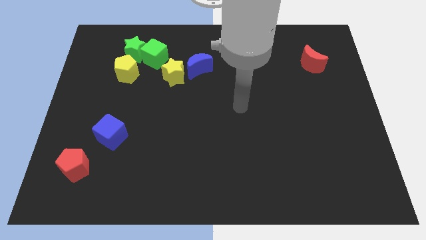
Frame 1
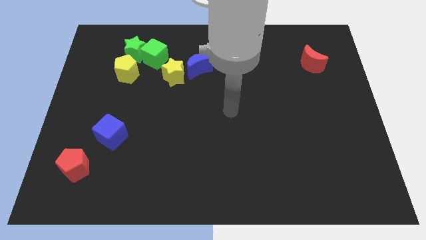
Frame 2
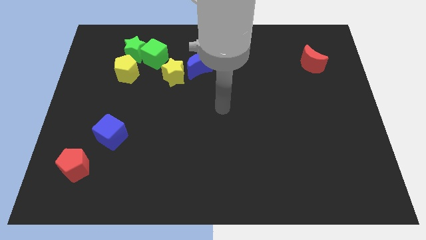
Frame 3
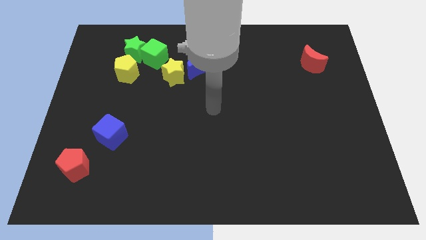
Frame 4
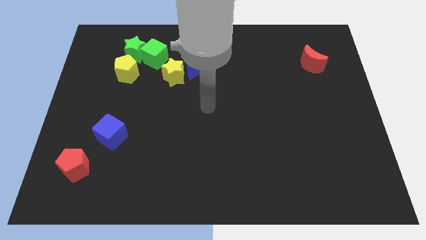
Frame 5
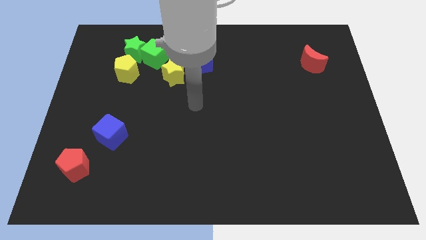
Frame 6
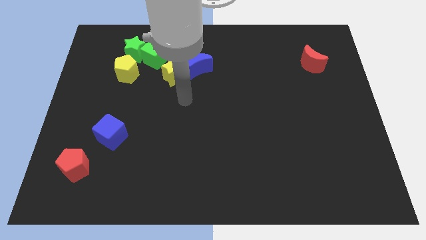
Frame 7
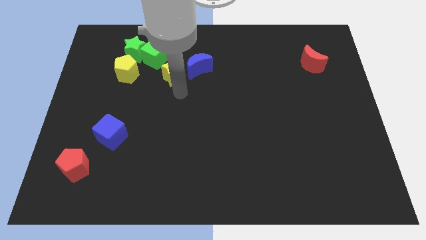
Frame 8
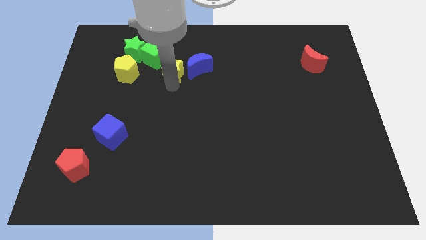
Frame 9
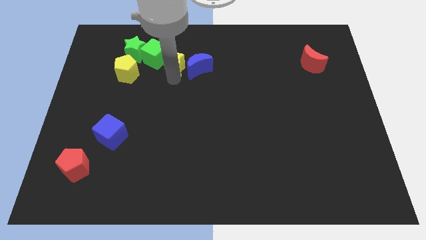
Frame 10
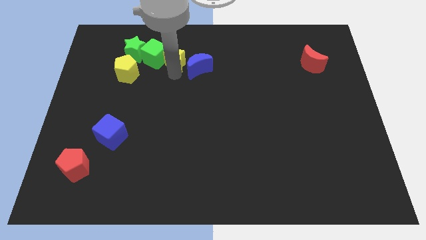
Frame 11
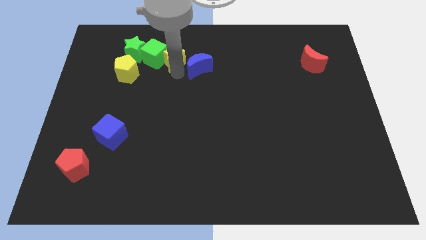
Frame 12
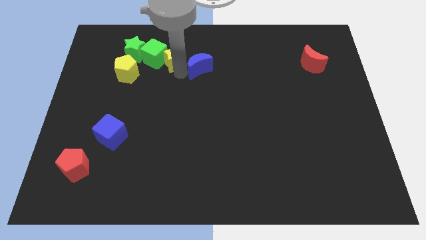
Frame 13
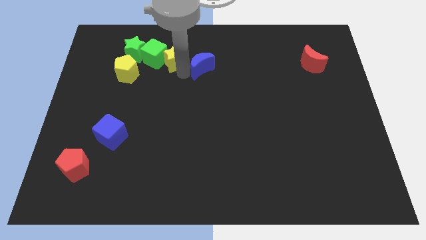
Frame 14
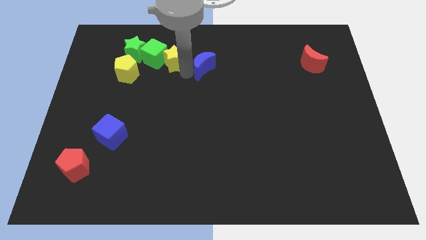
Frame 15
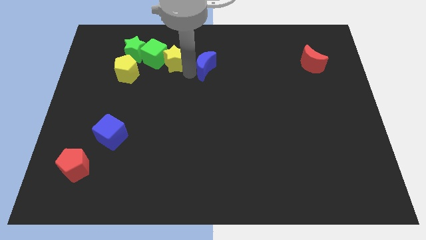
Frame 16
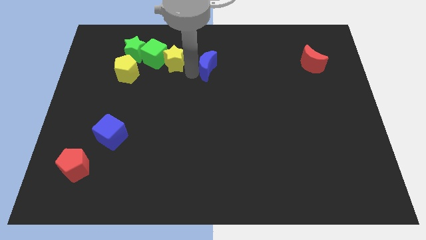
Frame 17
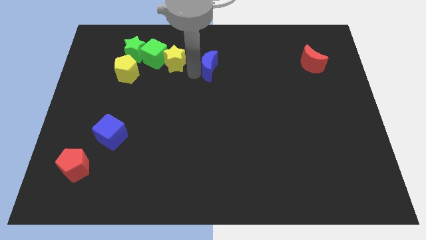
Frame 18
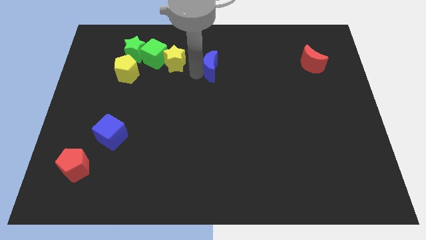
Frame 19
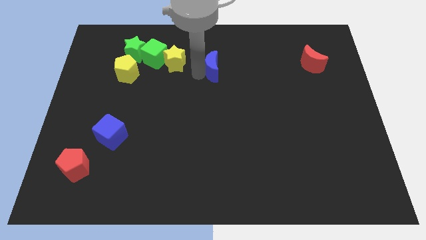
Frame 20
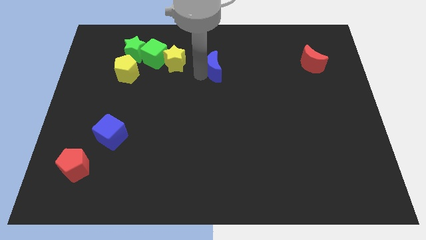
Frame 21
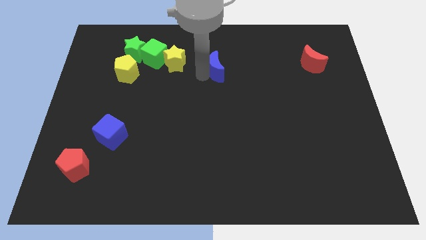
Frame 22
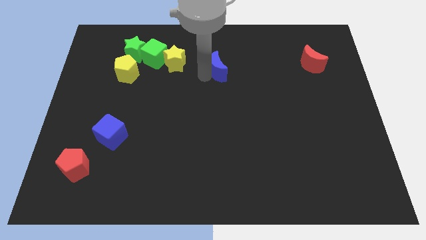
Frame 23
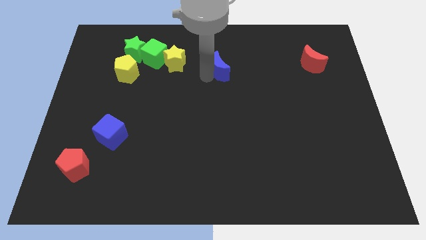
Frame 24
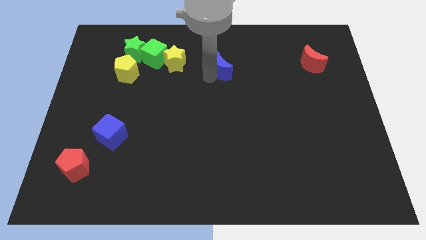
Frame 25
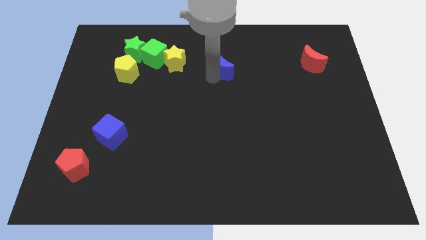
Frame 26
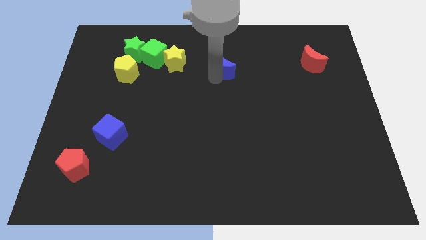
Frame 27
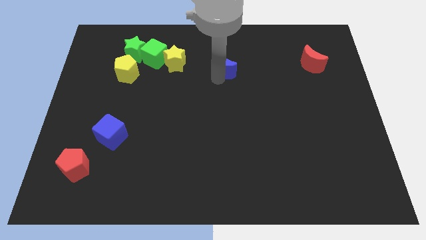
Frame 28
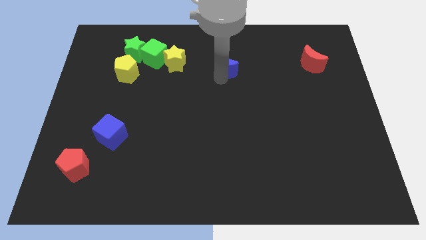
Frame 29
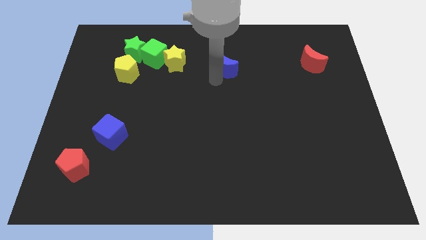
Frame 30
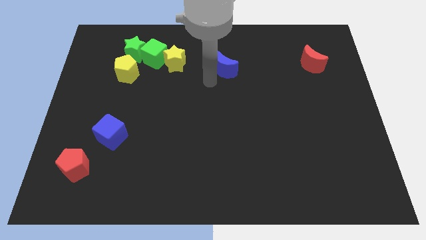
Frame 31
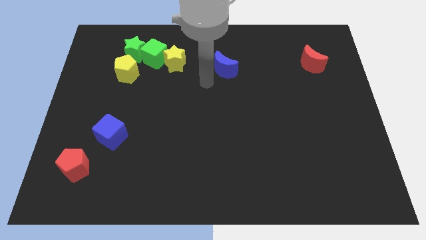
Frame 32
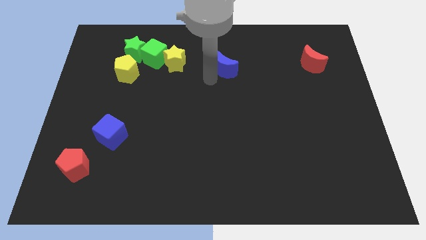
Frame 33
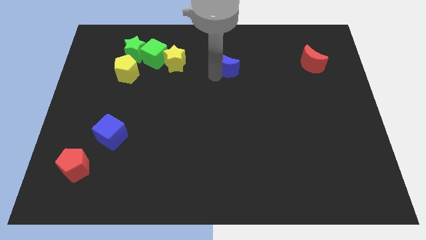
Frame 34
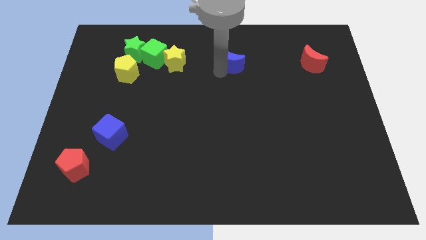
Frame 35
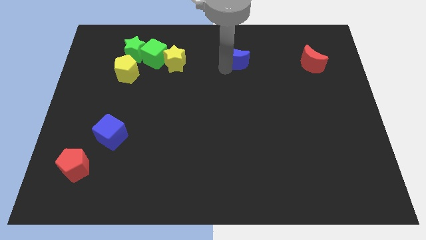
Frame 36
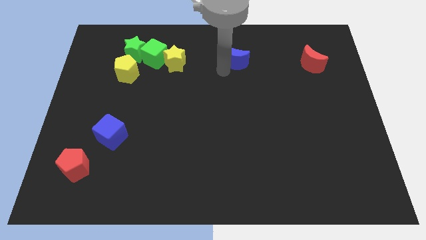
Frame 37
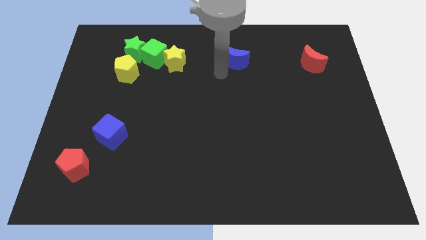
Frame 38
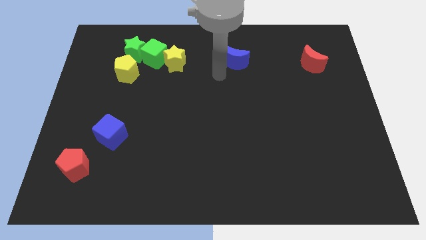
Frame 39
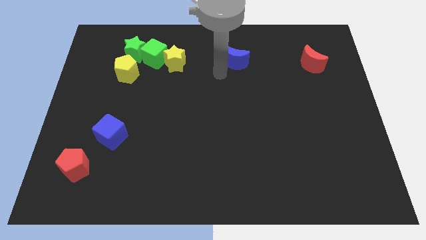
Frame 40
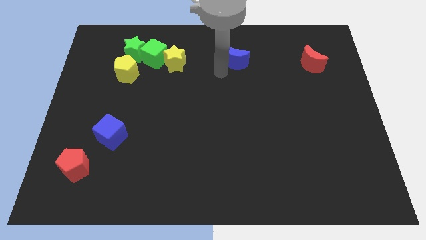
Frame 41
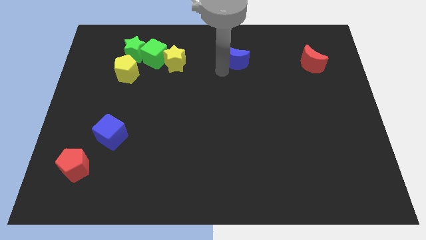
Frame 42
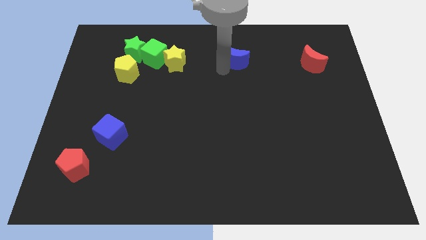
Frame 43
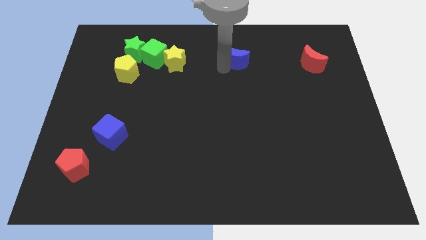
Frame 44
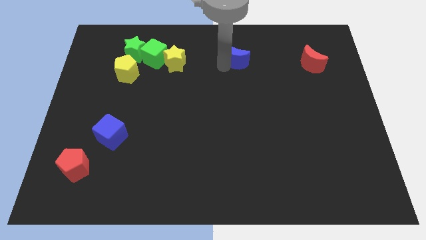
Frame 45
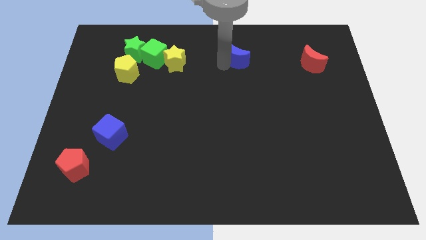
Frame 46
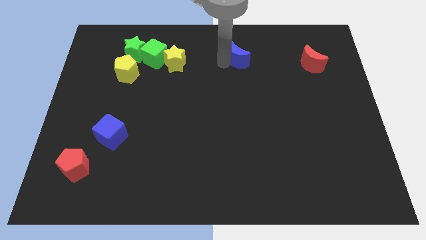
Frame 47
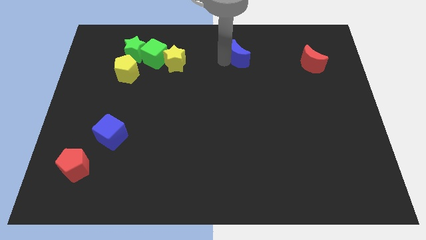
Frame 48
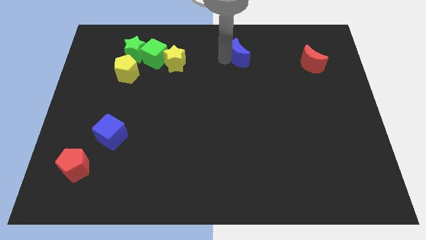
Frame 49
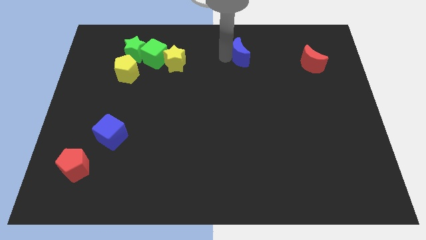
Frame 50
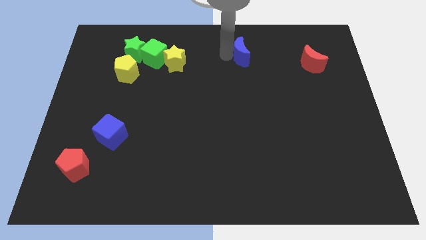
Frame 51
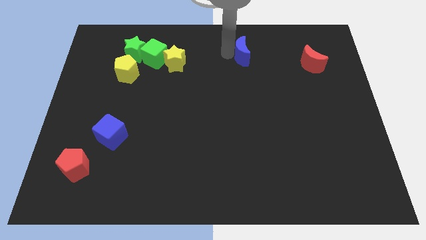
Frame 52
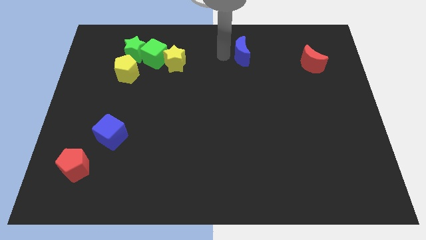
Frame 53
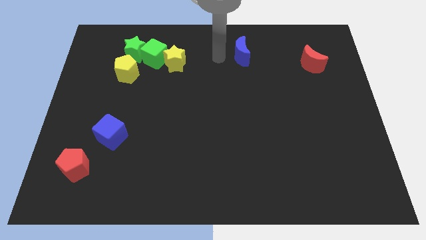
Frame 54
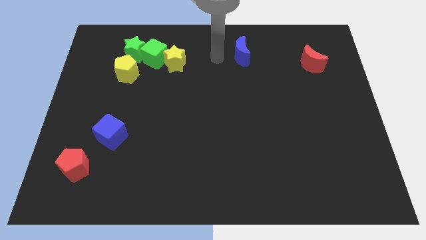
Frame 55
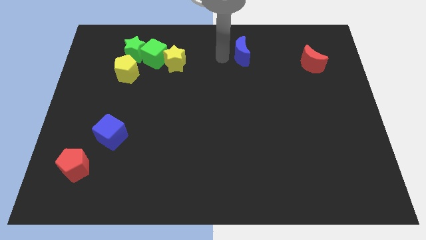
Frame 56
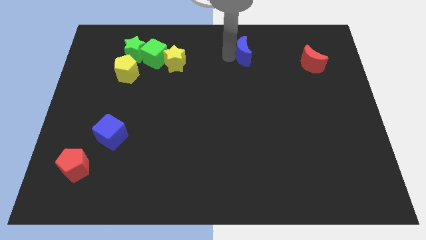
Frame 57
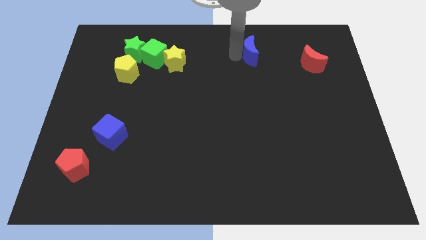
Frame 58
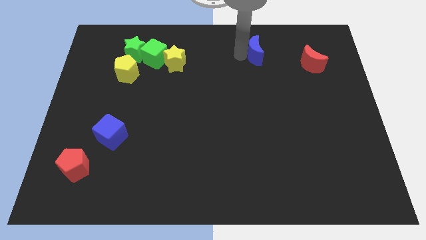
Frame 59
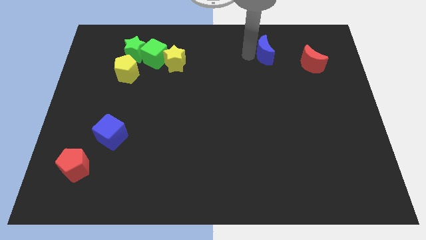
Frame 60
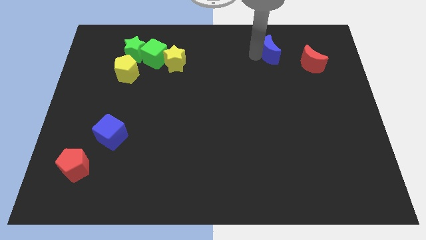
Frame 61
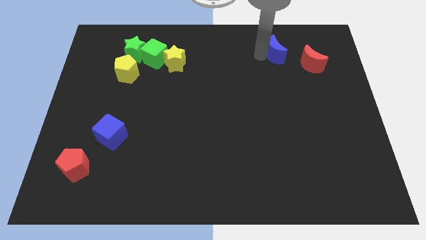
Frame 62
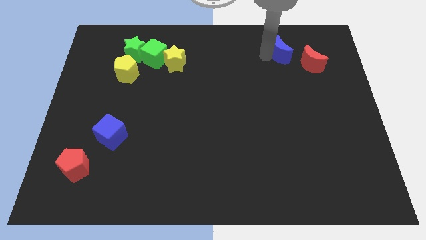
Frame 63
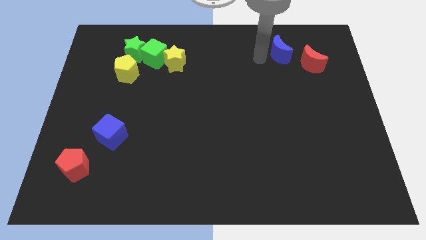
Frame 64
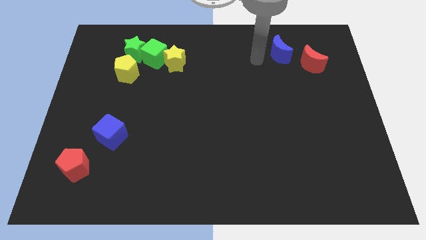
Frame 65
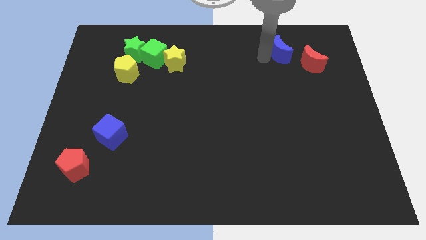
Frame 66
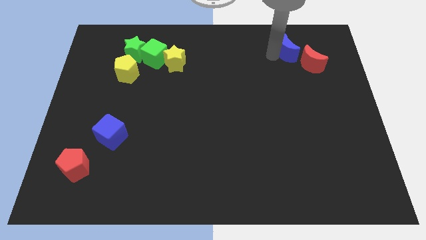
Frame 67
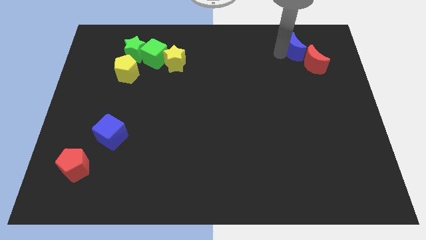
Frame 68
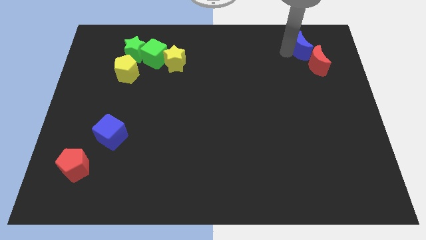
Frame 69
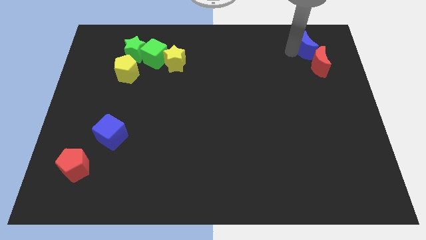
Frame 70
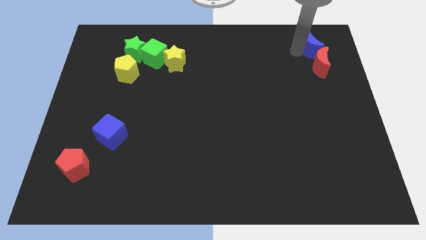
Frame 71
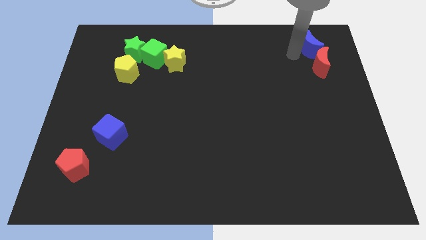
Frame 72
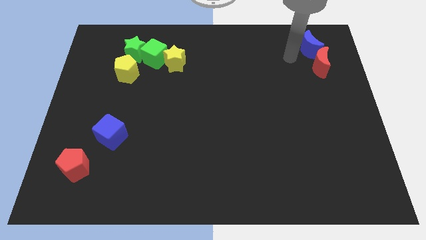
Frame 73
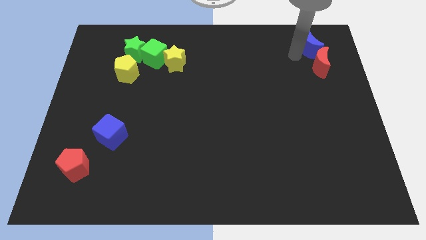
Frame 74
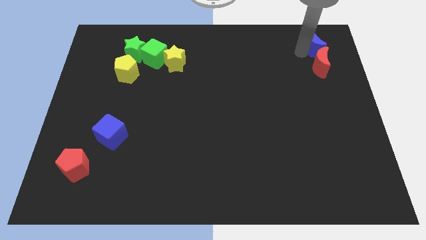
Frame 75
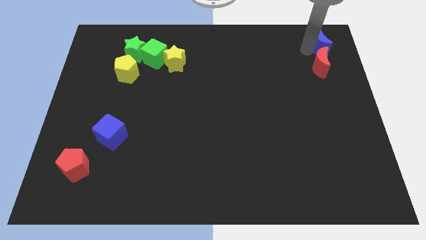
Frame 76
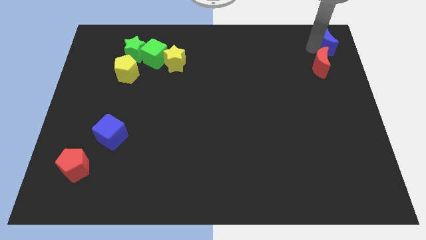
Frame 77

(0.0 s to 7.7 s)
put the blue moon to the top right
